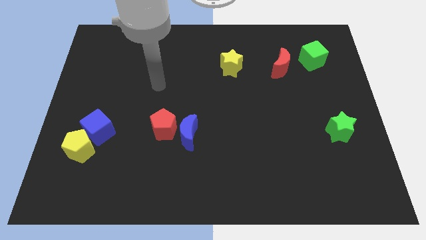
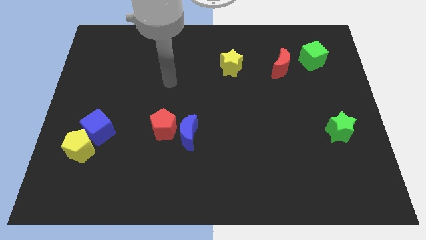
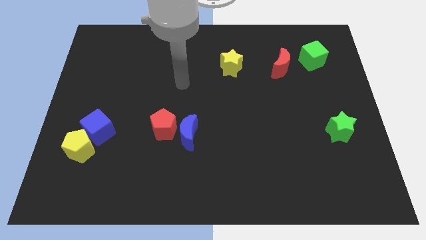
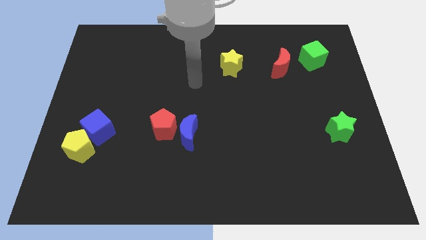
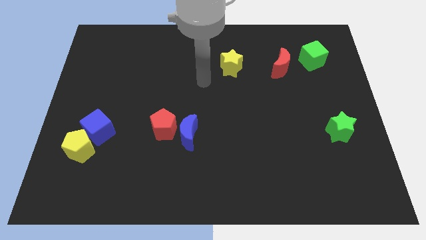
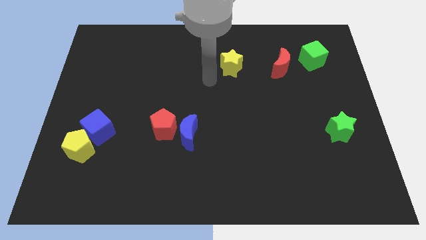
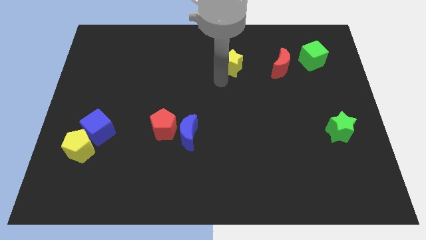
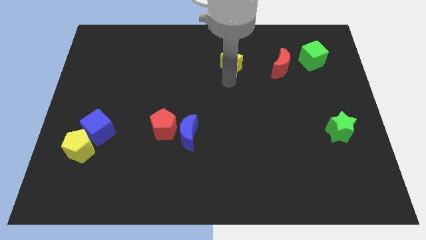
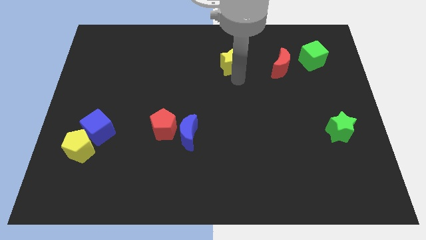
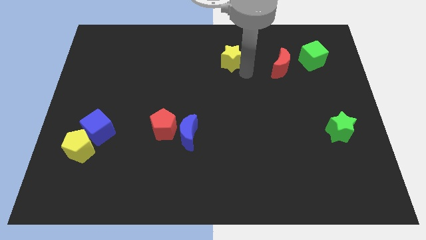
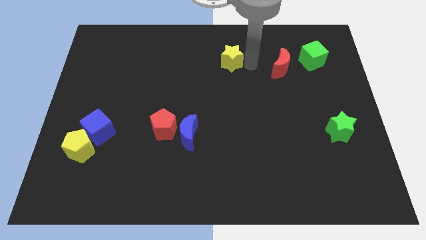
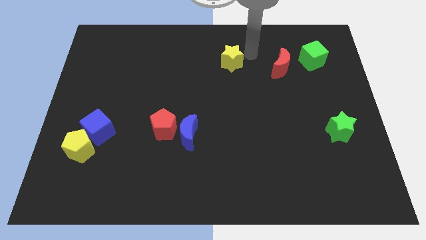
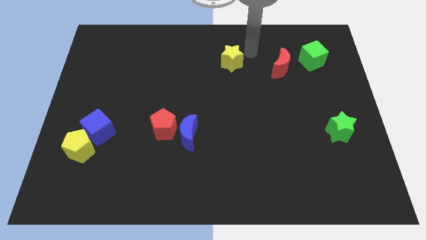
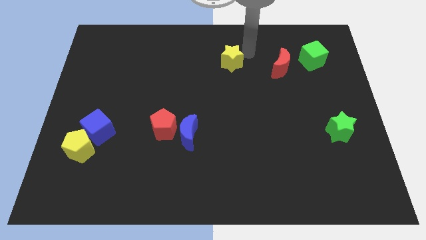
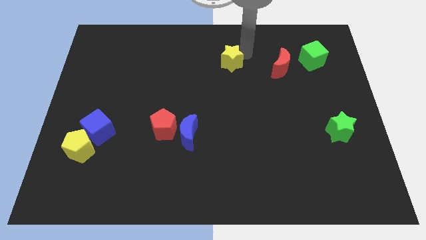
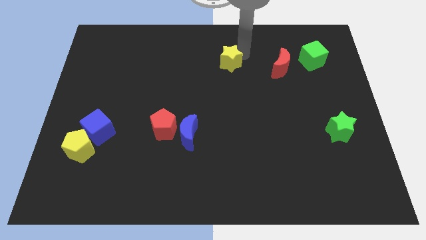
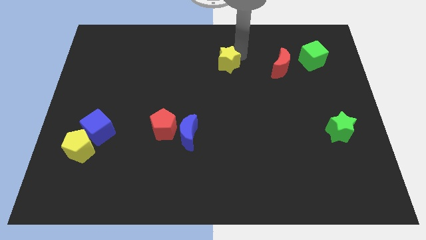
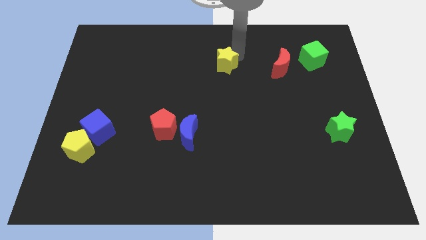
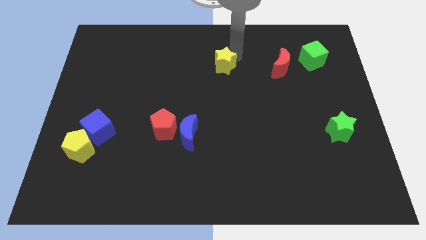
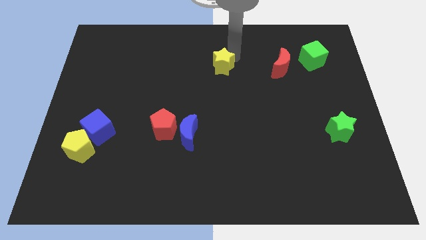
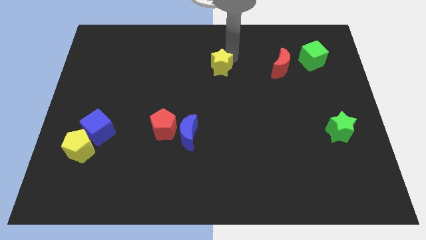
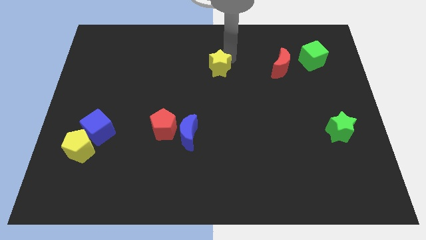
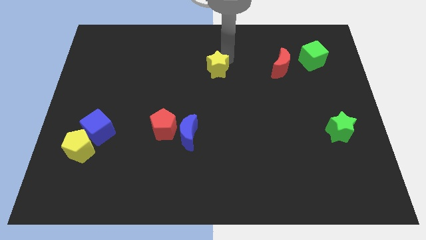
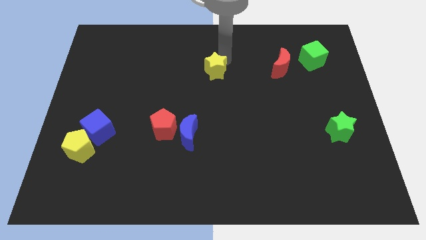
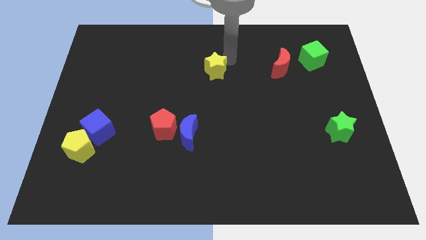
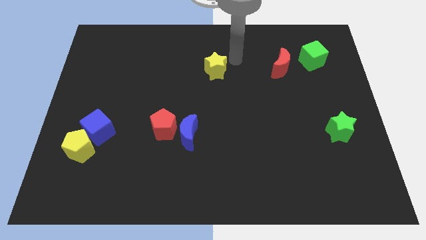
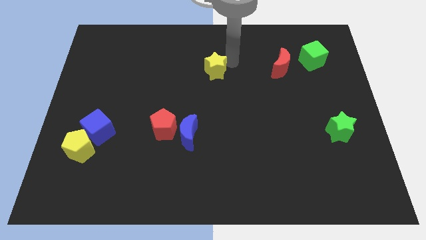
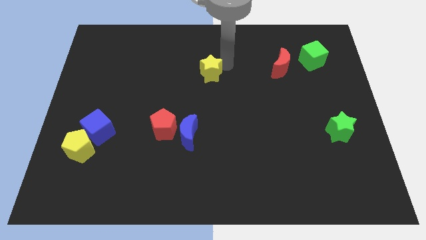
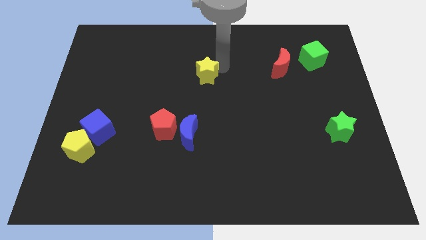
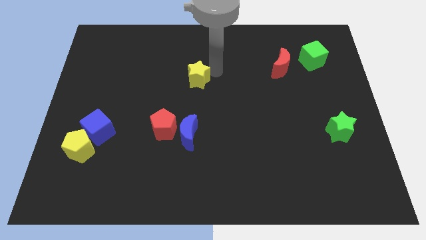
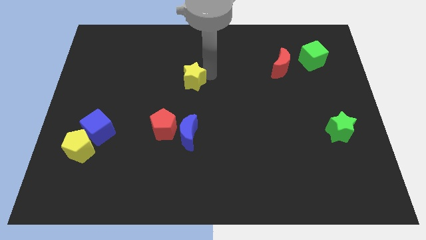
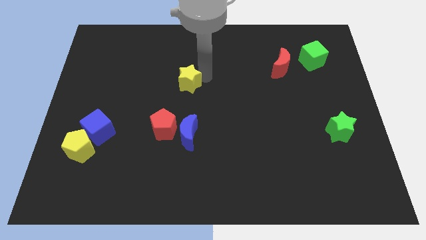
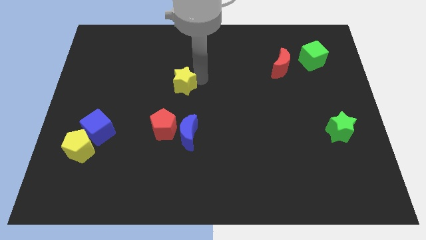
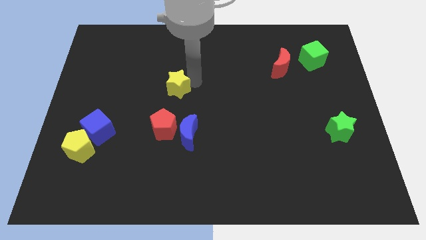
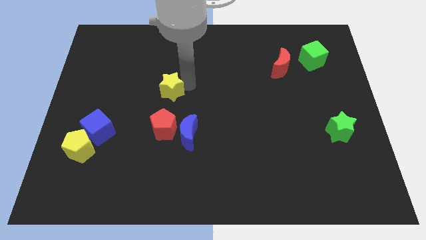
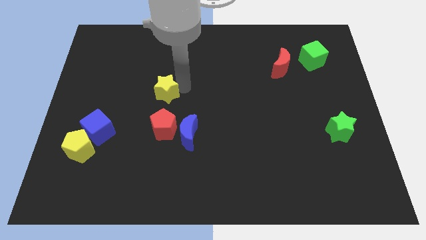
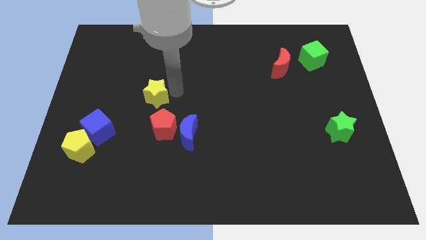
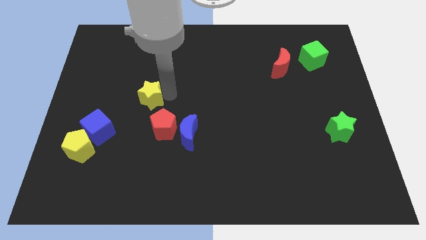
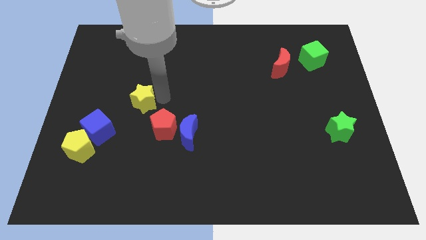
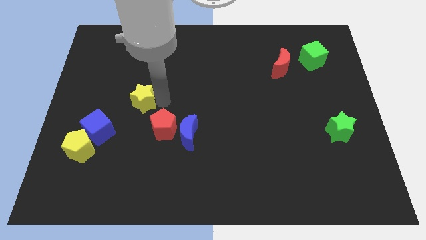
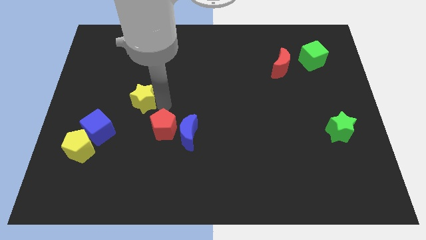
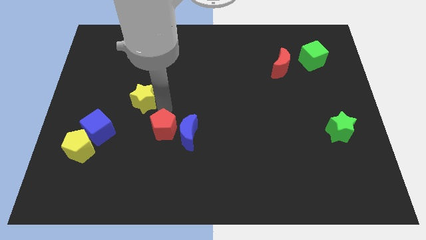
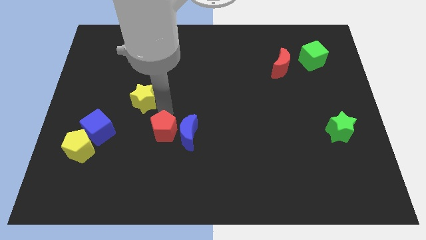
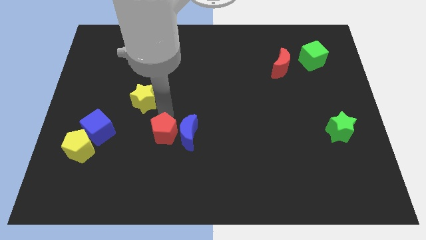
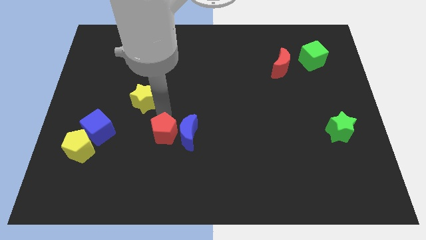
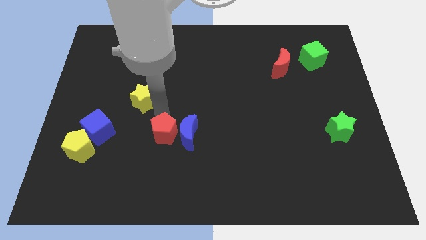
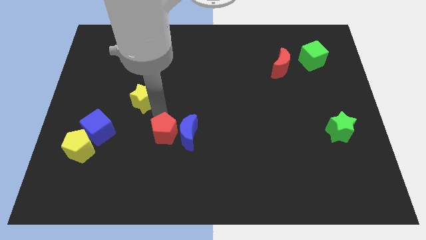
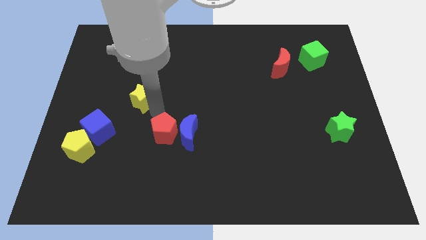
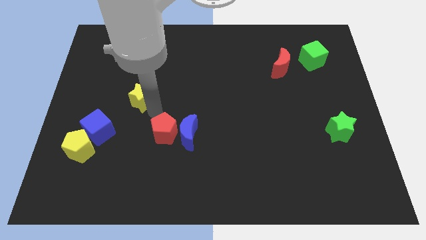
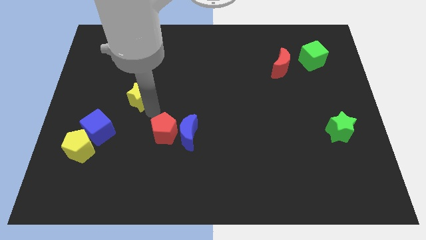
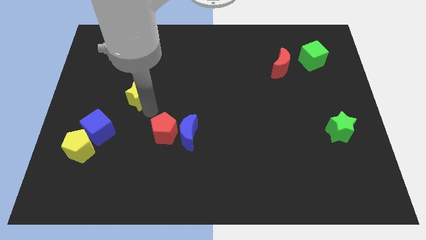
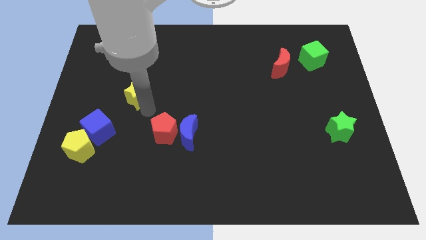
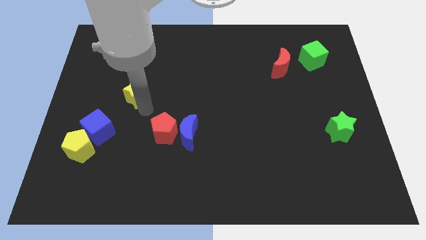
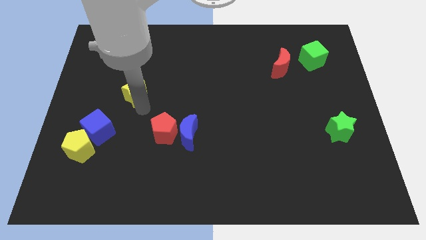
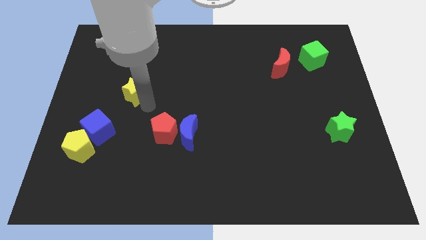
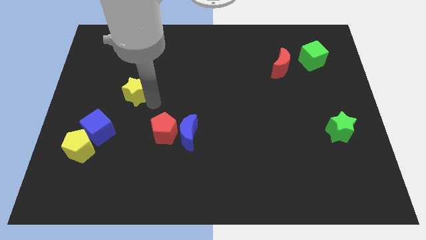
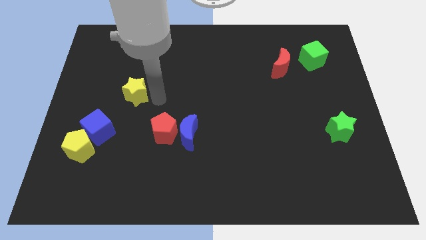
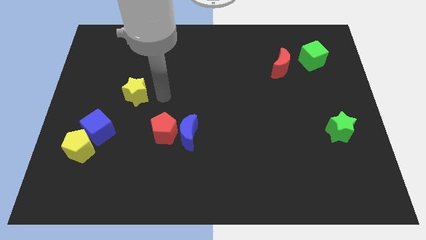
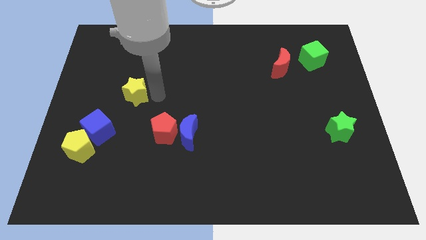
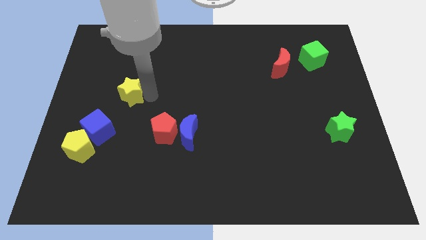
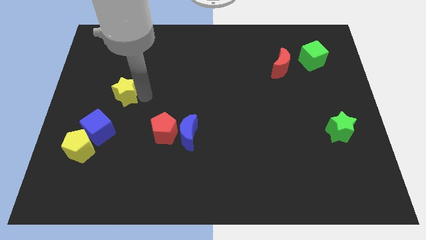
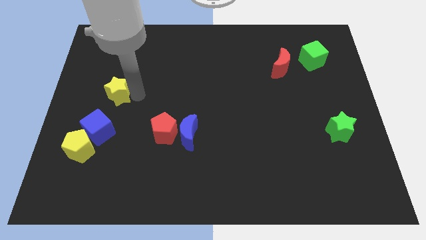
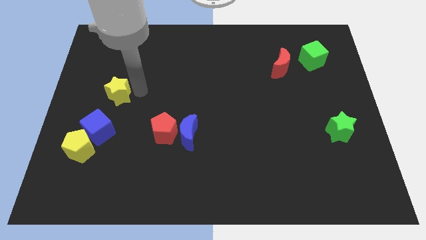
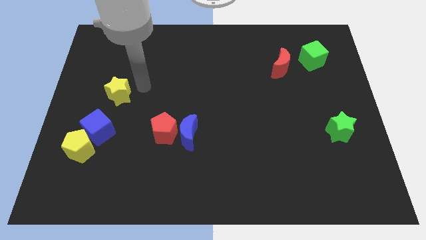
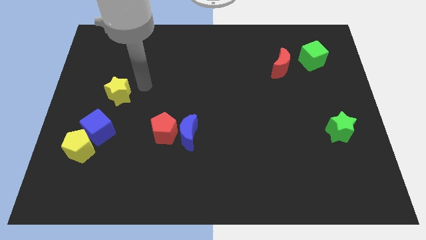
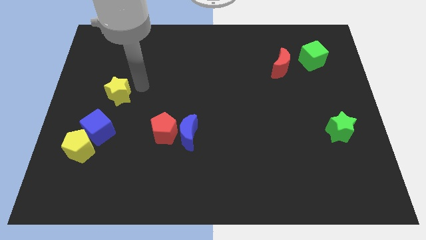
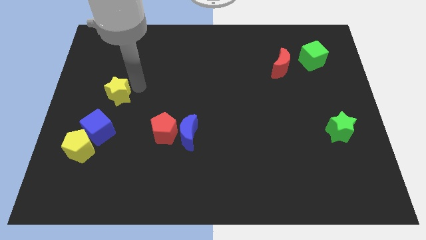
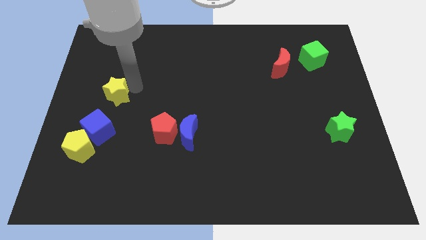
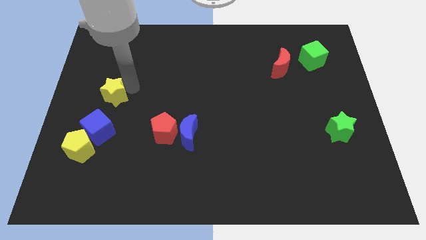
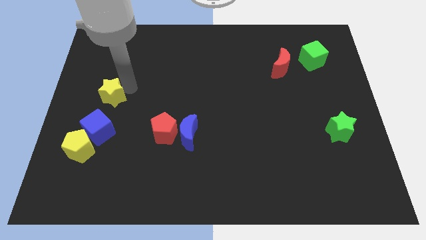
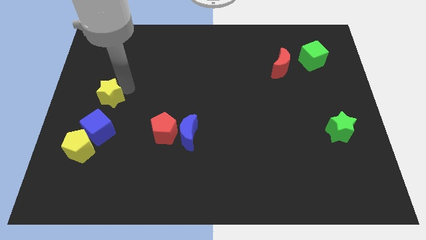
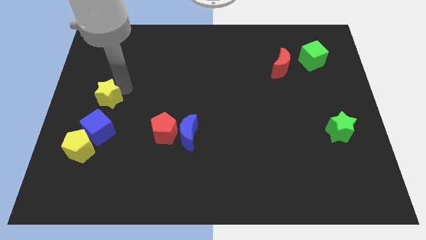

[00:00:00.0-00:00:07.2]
put the yellow star to the left side
